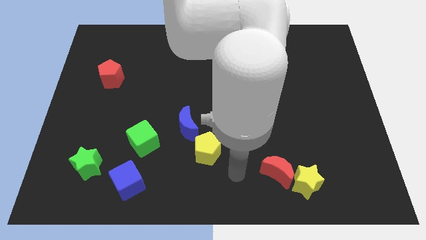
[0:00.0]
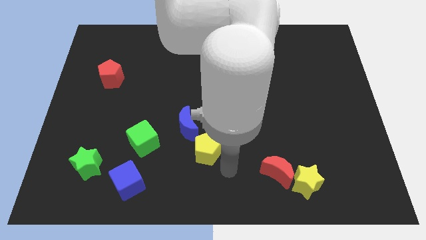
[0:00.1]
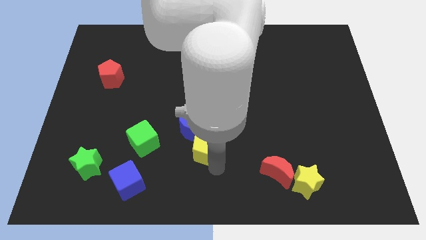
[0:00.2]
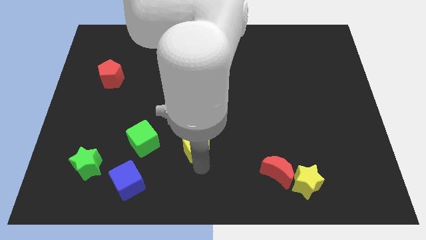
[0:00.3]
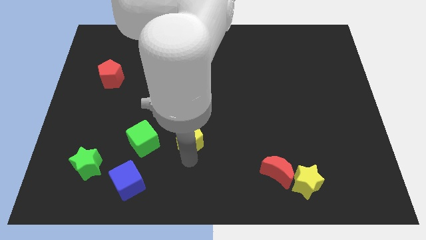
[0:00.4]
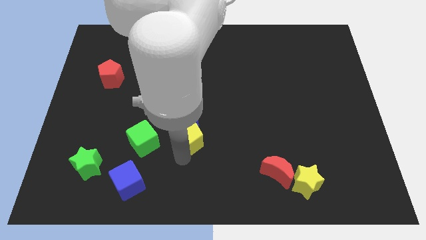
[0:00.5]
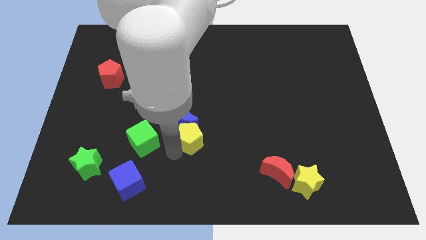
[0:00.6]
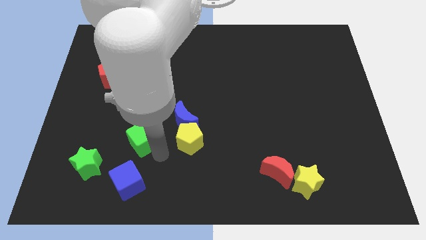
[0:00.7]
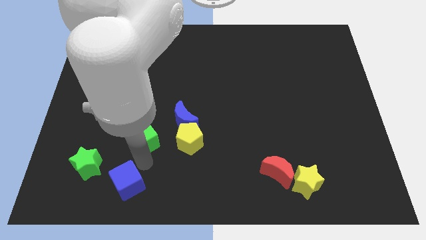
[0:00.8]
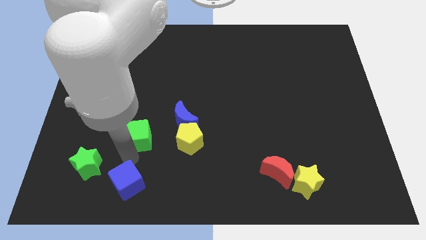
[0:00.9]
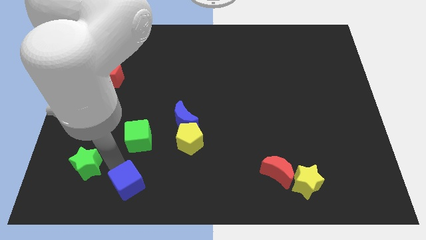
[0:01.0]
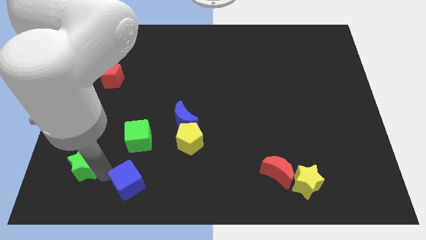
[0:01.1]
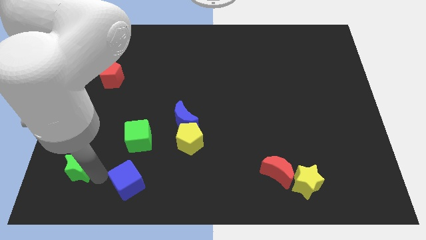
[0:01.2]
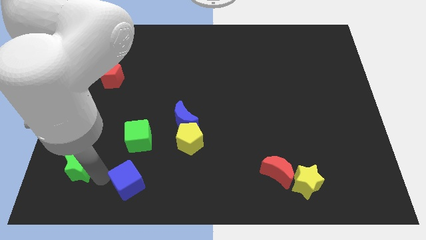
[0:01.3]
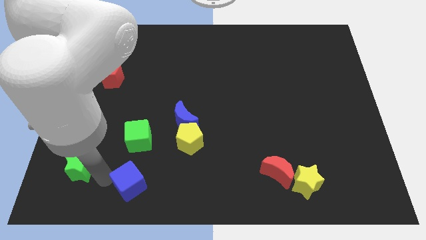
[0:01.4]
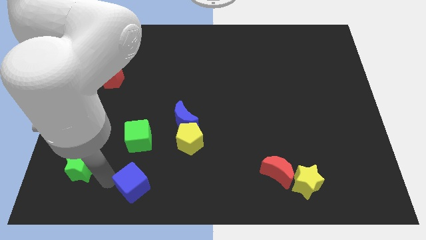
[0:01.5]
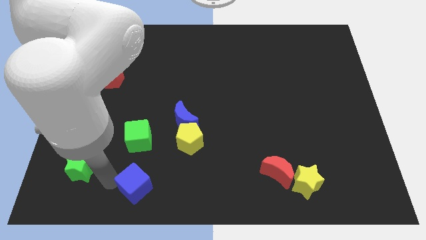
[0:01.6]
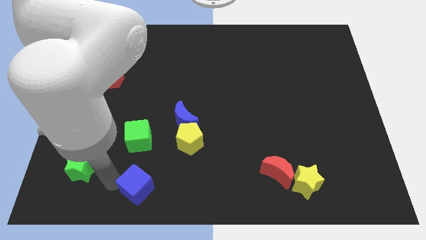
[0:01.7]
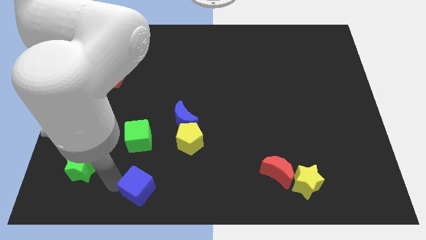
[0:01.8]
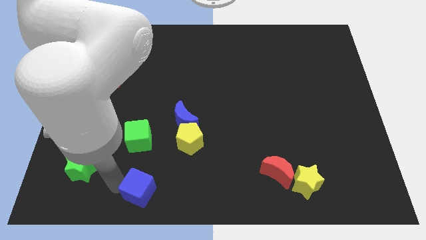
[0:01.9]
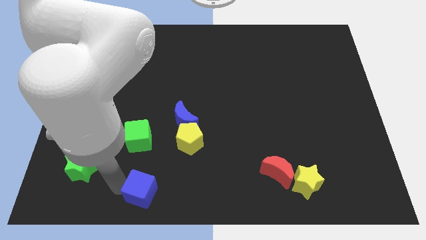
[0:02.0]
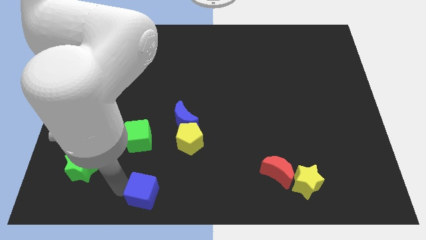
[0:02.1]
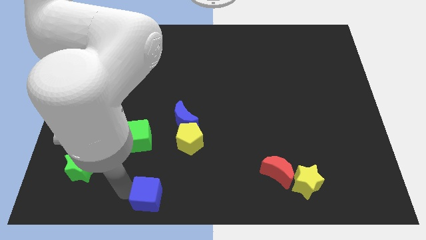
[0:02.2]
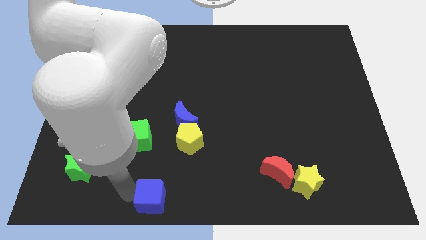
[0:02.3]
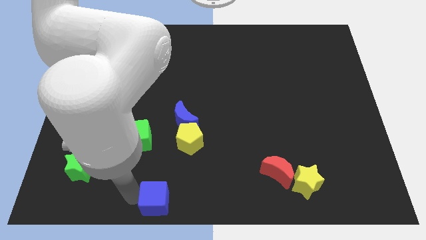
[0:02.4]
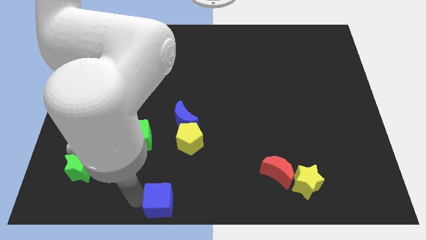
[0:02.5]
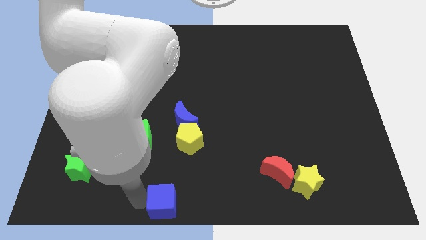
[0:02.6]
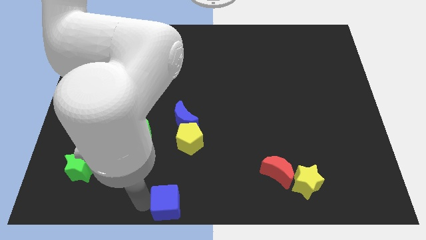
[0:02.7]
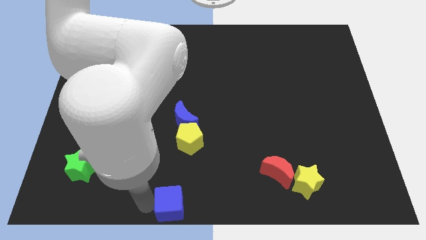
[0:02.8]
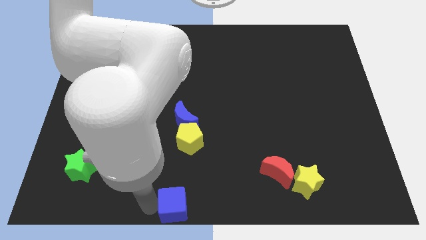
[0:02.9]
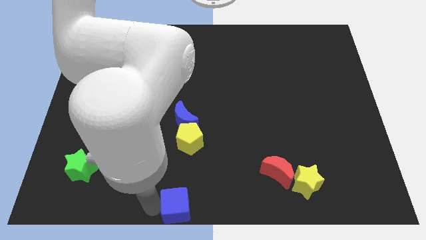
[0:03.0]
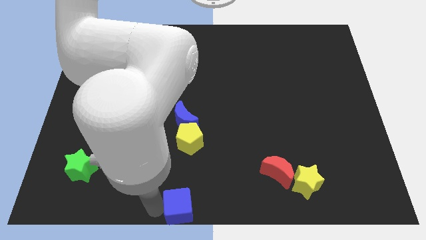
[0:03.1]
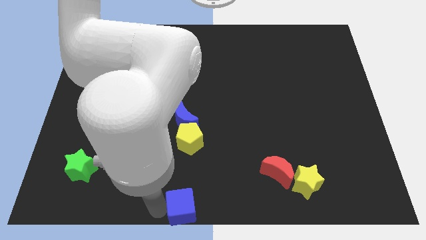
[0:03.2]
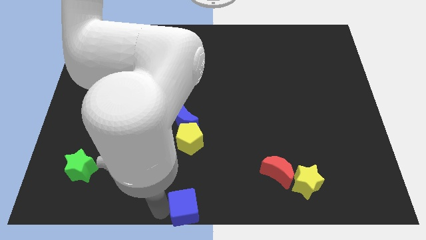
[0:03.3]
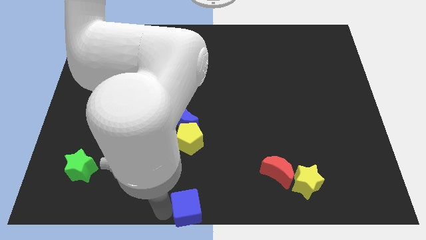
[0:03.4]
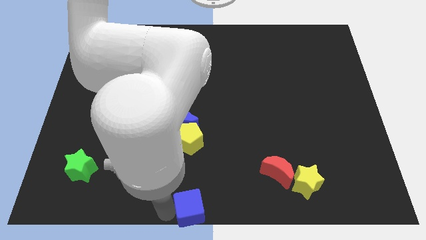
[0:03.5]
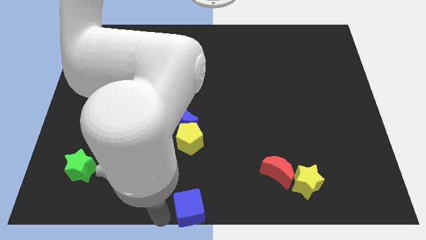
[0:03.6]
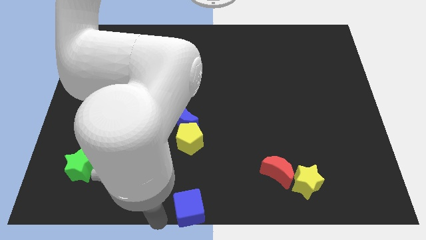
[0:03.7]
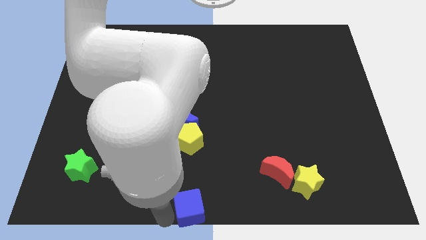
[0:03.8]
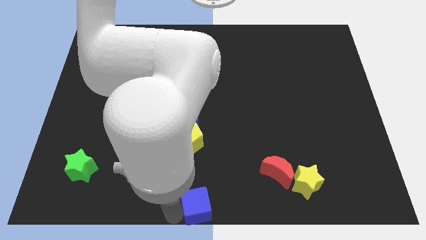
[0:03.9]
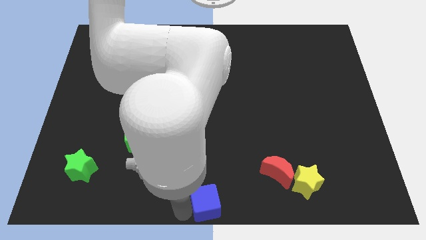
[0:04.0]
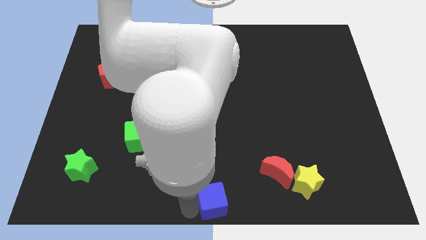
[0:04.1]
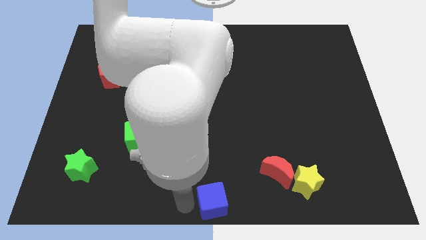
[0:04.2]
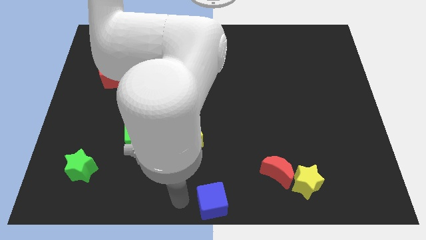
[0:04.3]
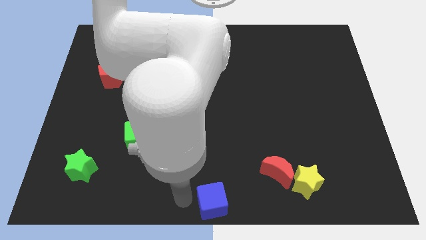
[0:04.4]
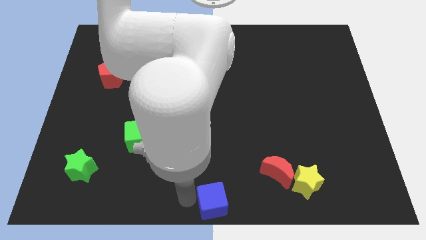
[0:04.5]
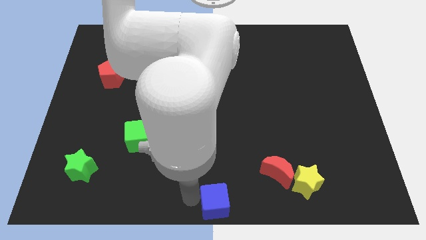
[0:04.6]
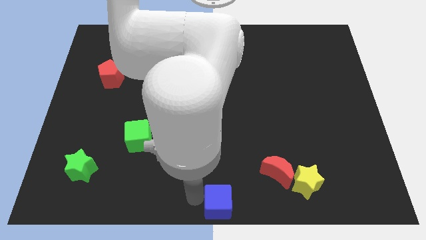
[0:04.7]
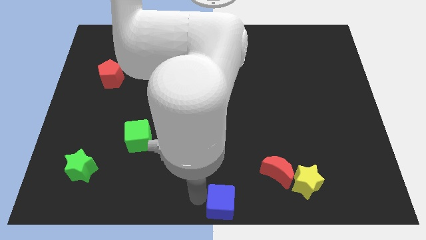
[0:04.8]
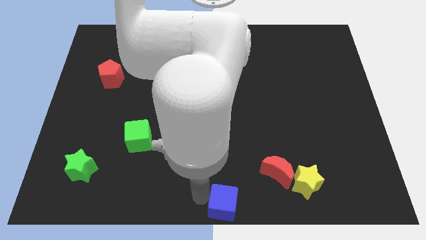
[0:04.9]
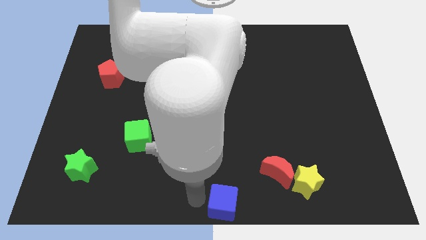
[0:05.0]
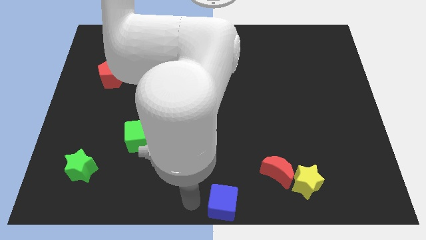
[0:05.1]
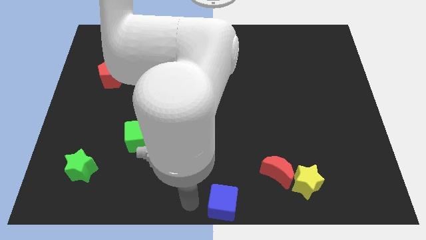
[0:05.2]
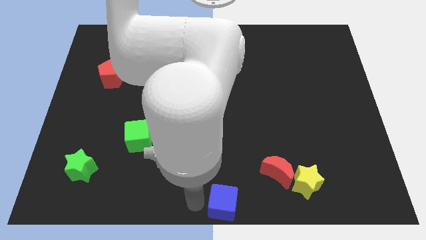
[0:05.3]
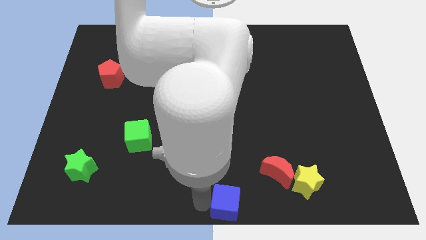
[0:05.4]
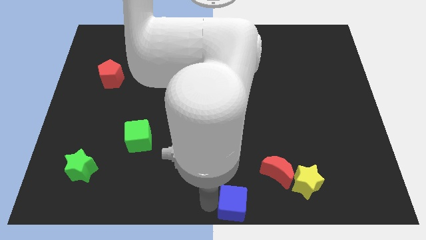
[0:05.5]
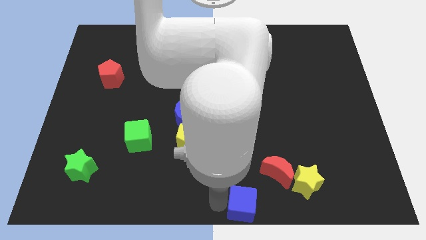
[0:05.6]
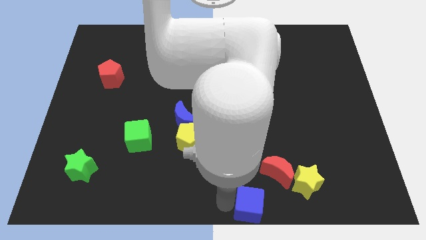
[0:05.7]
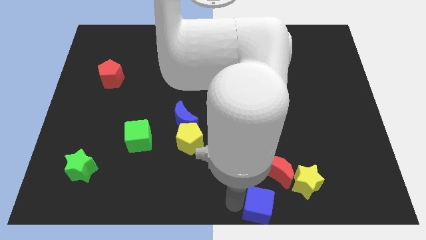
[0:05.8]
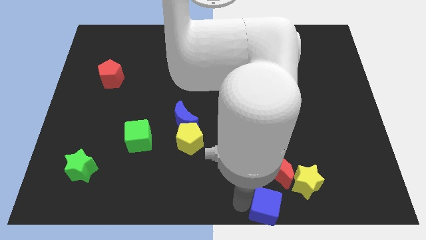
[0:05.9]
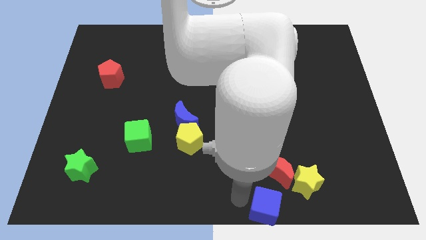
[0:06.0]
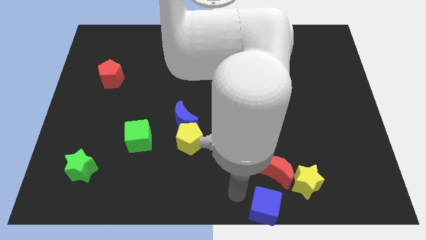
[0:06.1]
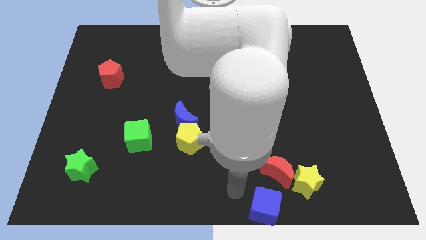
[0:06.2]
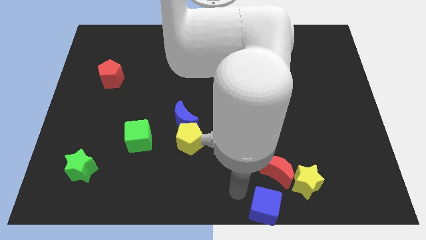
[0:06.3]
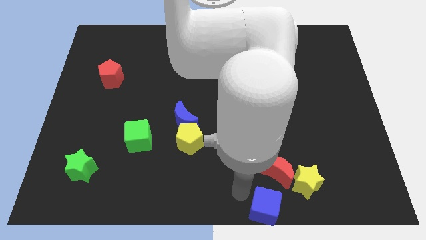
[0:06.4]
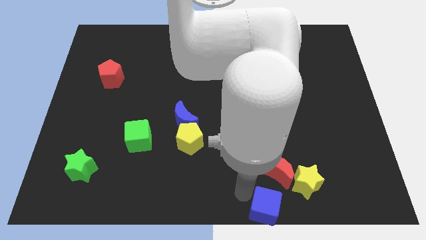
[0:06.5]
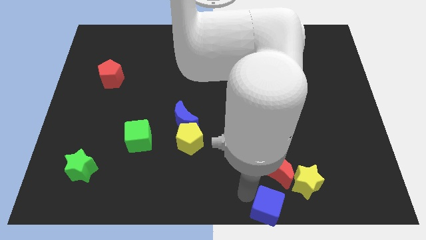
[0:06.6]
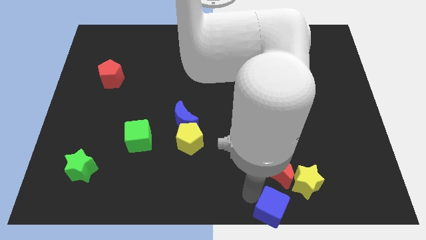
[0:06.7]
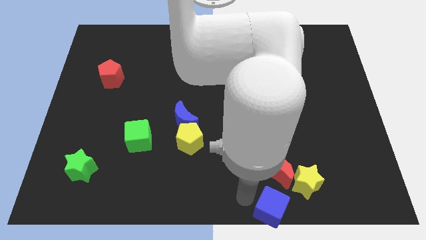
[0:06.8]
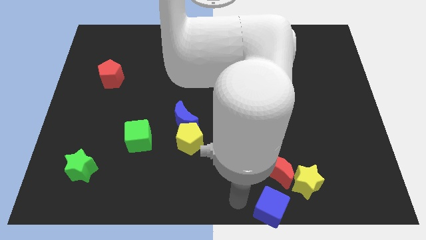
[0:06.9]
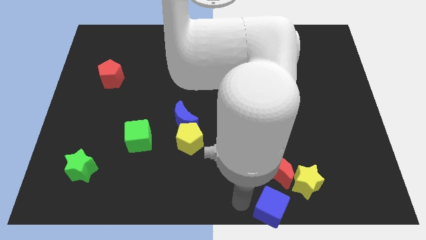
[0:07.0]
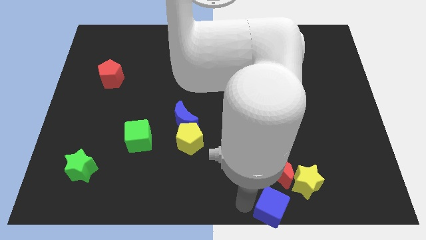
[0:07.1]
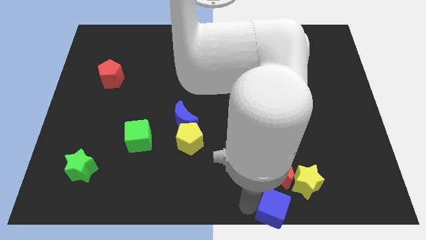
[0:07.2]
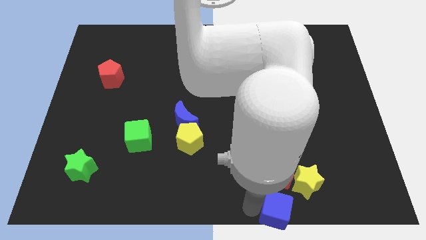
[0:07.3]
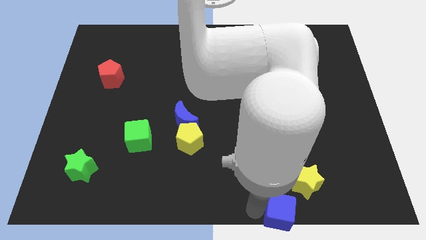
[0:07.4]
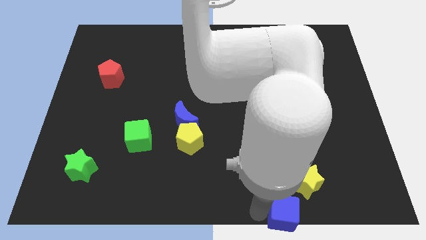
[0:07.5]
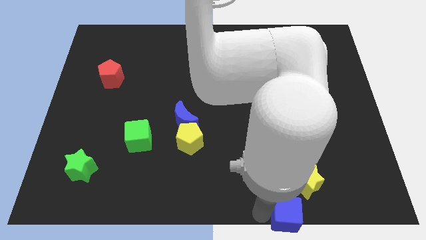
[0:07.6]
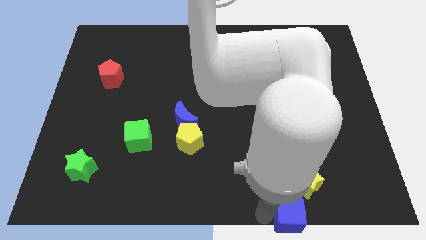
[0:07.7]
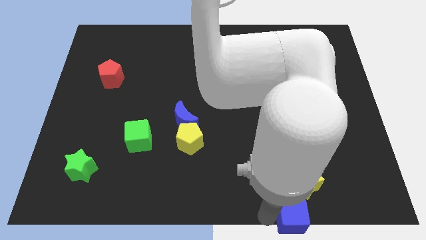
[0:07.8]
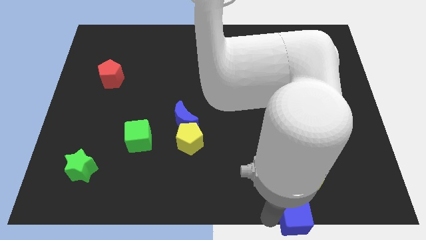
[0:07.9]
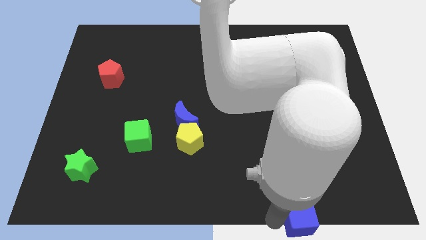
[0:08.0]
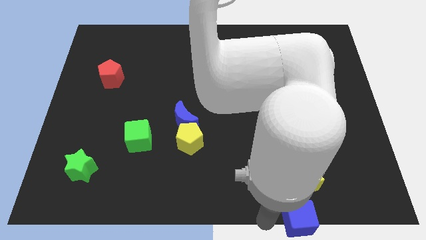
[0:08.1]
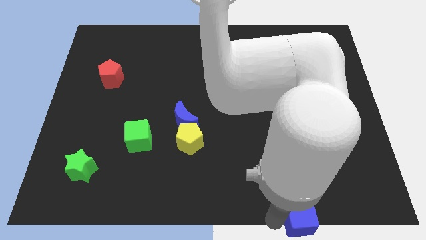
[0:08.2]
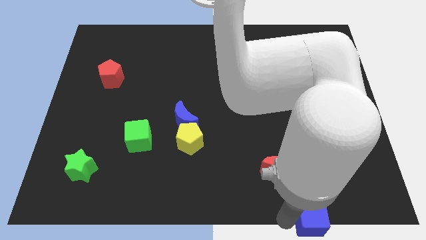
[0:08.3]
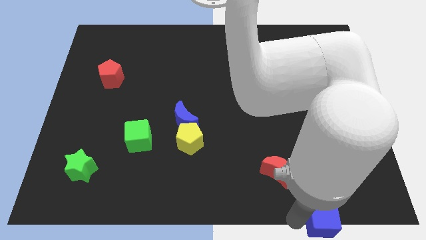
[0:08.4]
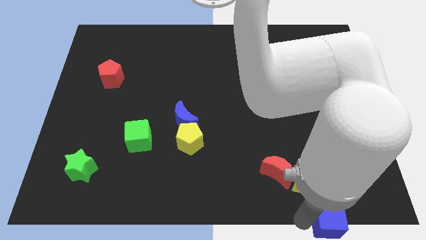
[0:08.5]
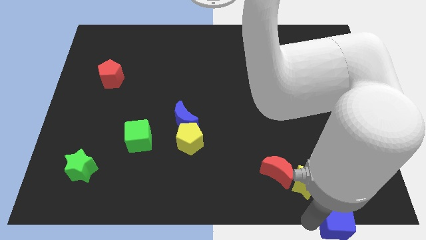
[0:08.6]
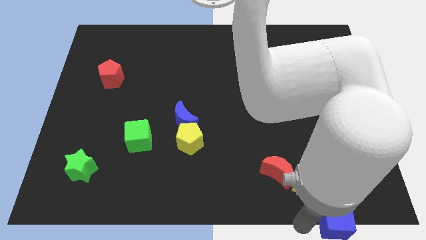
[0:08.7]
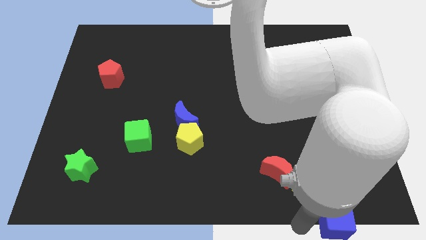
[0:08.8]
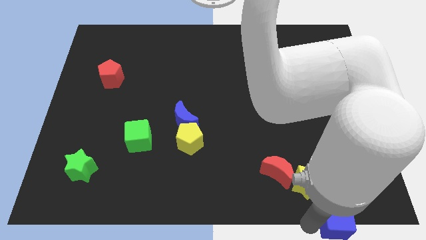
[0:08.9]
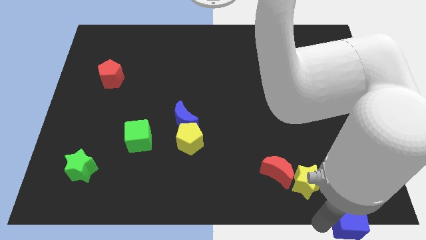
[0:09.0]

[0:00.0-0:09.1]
move the blue cube to the bottom right corner
